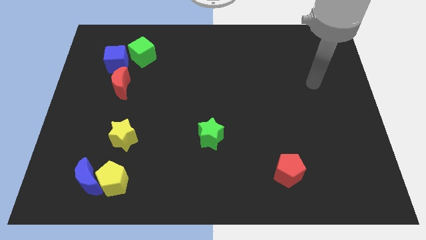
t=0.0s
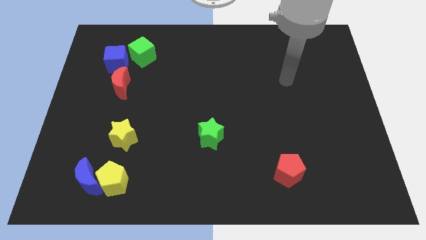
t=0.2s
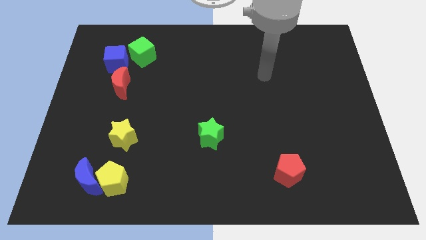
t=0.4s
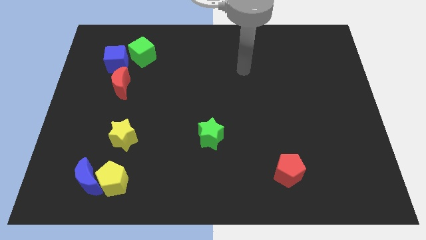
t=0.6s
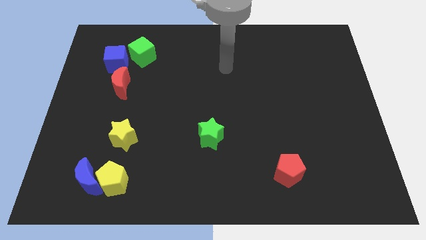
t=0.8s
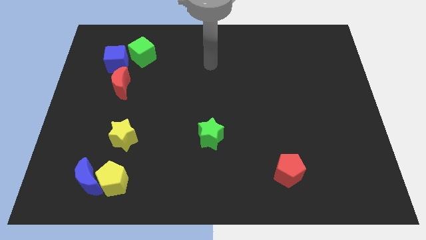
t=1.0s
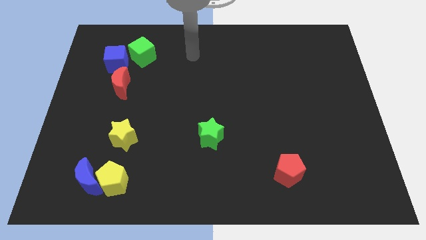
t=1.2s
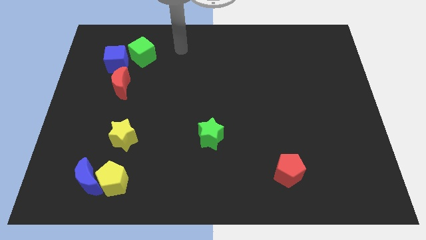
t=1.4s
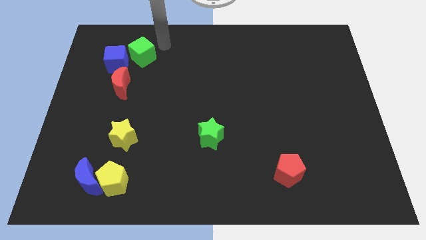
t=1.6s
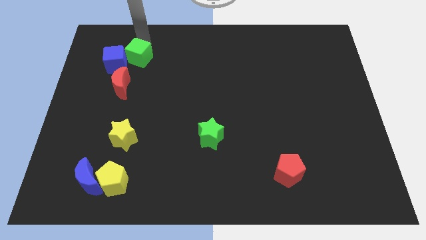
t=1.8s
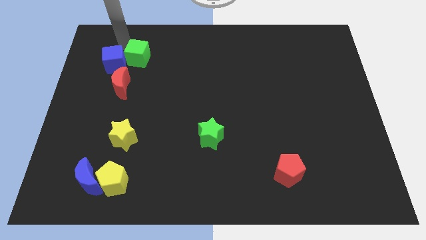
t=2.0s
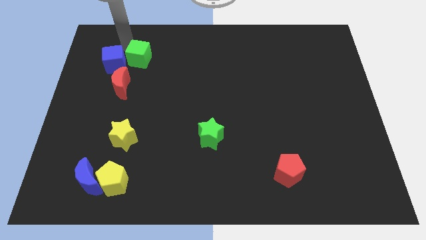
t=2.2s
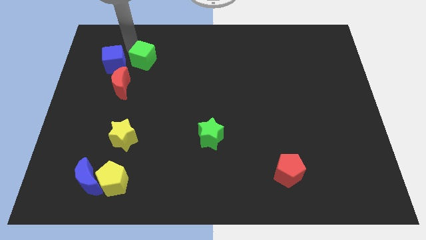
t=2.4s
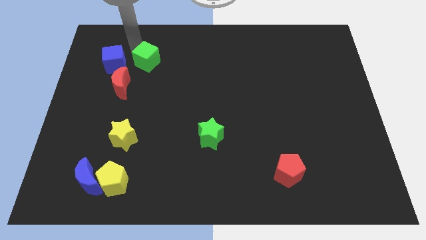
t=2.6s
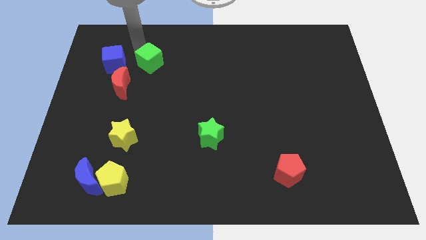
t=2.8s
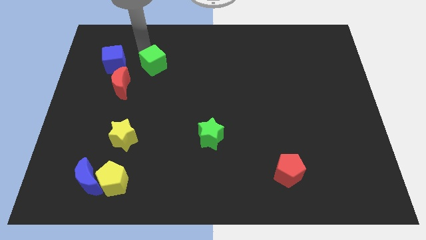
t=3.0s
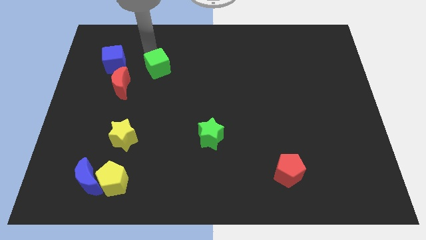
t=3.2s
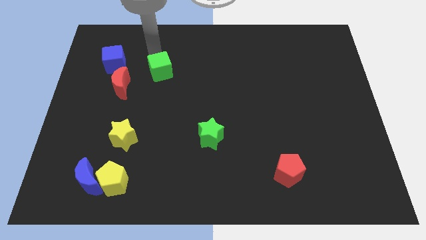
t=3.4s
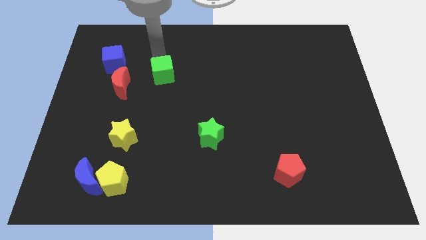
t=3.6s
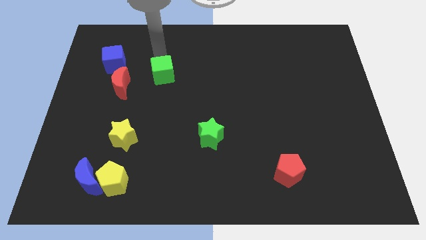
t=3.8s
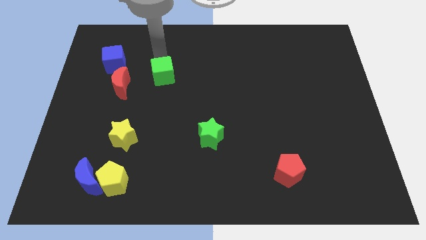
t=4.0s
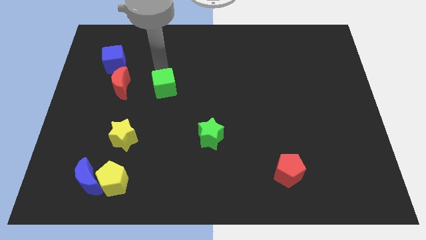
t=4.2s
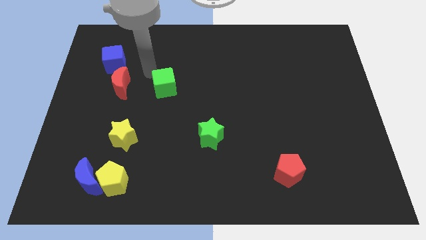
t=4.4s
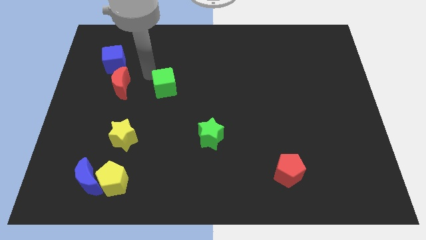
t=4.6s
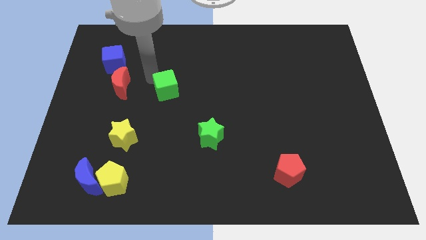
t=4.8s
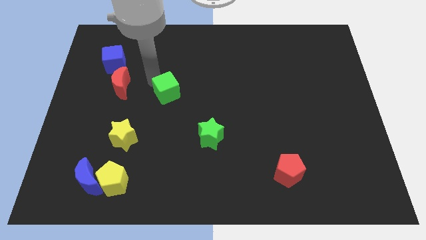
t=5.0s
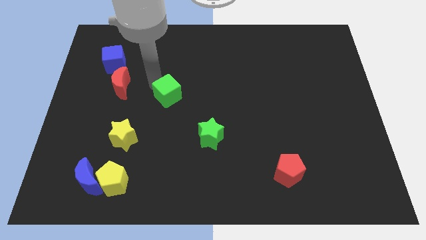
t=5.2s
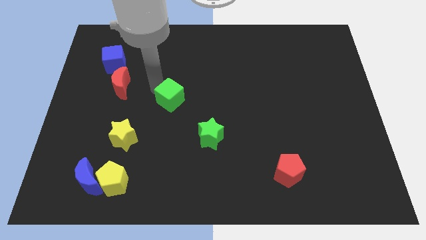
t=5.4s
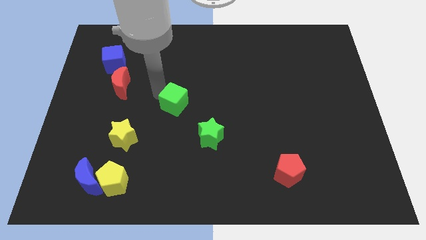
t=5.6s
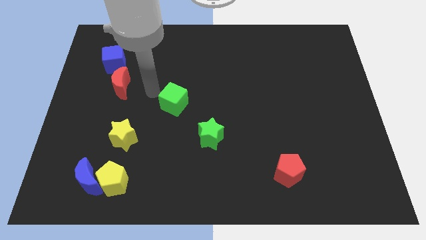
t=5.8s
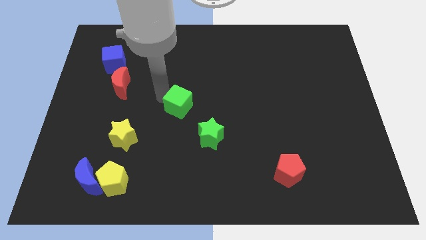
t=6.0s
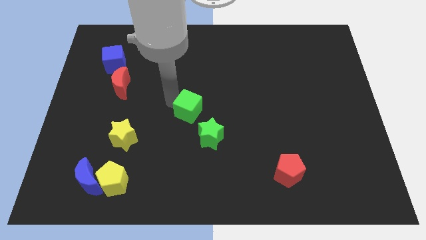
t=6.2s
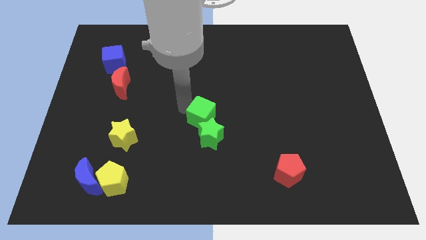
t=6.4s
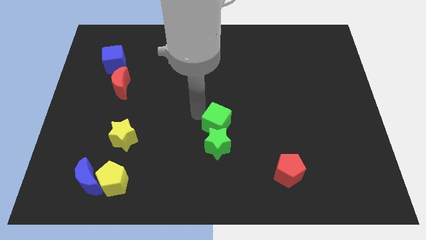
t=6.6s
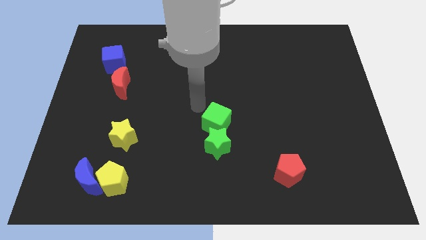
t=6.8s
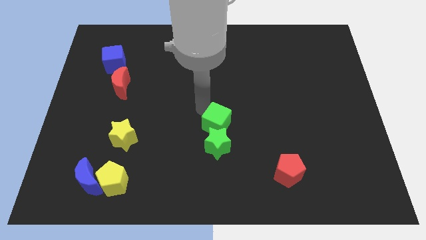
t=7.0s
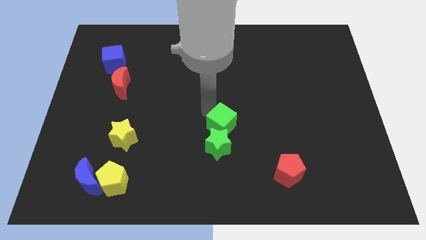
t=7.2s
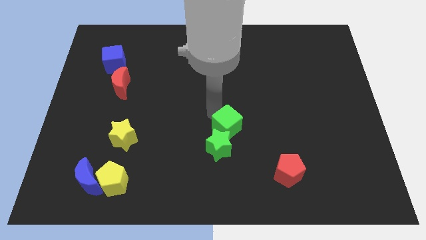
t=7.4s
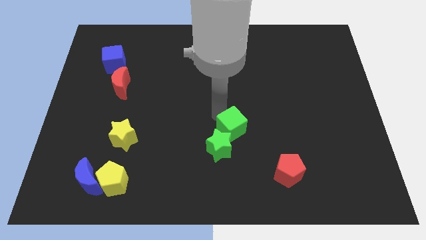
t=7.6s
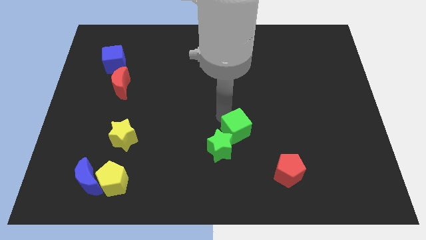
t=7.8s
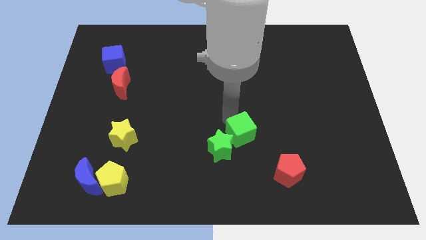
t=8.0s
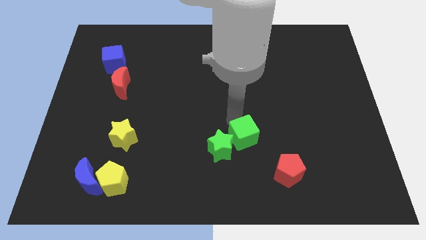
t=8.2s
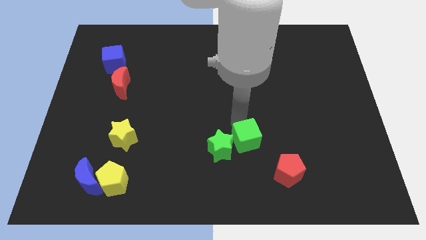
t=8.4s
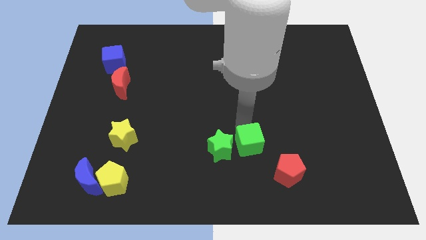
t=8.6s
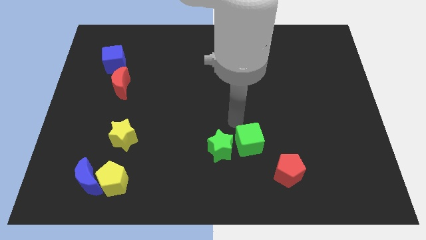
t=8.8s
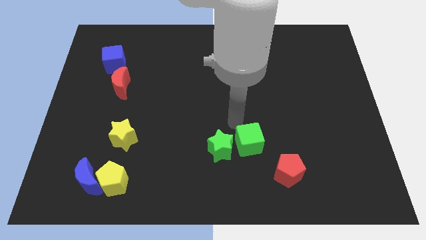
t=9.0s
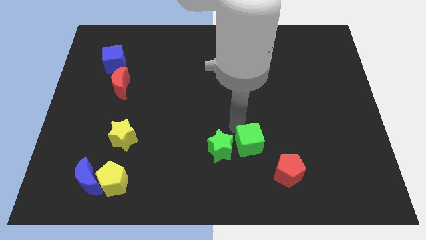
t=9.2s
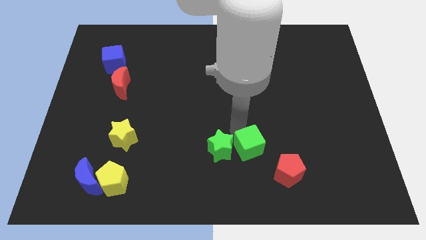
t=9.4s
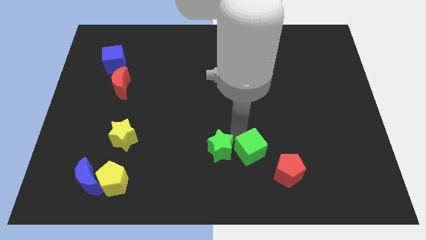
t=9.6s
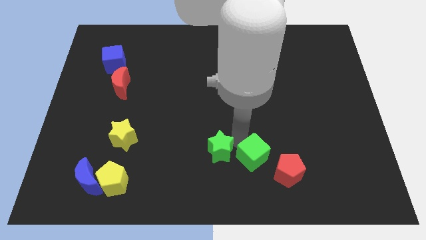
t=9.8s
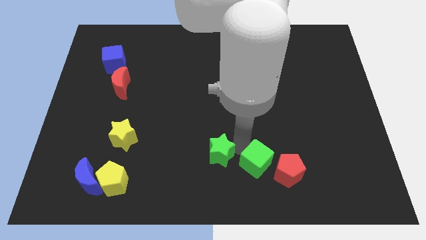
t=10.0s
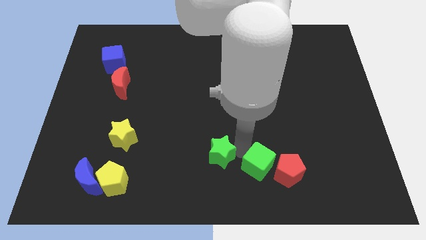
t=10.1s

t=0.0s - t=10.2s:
slide the green cube towards the red pentagon

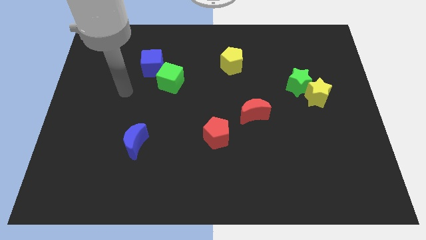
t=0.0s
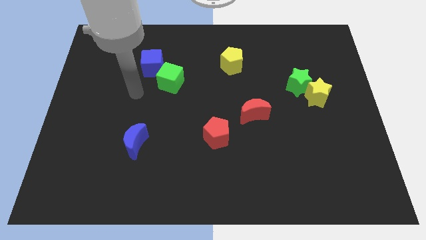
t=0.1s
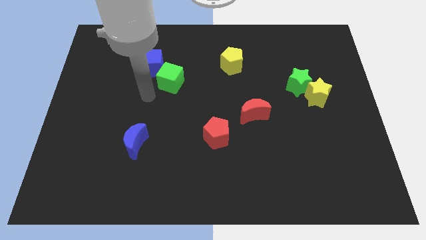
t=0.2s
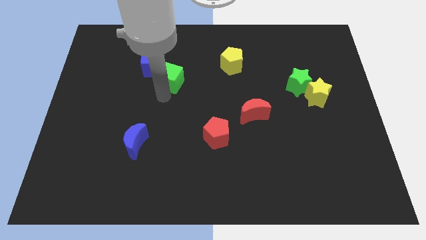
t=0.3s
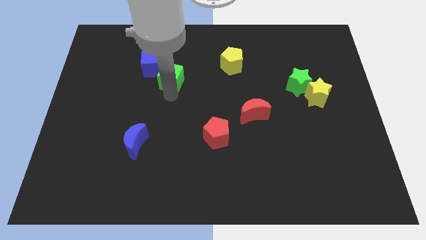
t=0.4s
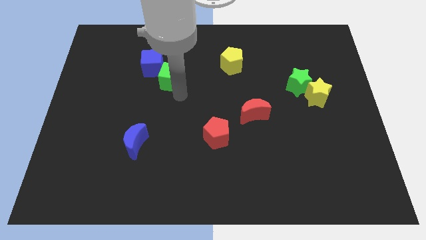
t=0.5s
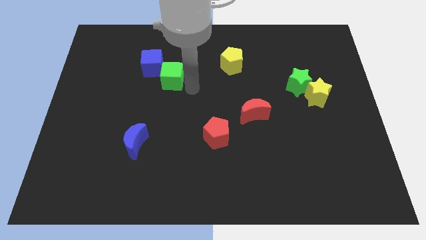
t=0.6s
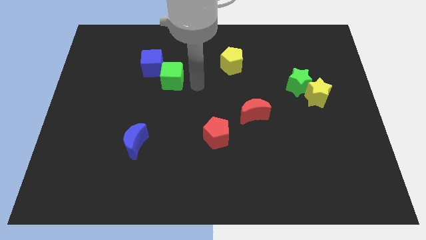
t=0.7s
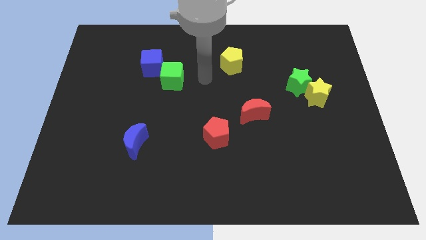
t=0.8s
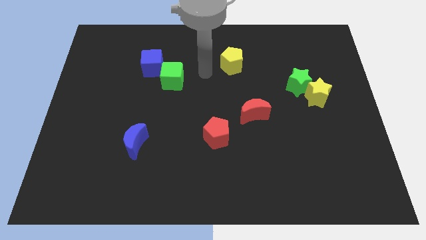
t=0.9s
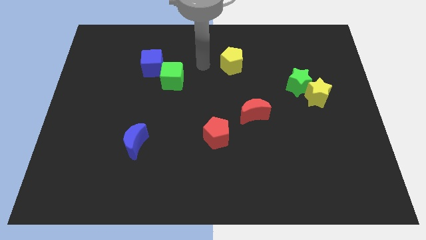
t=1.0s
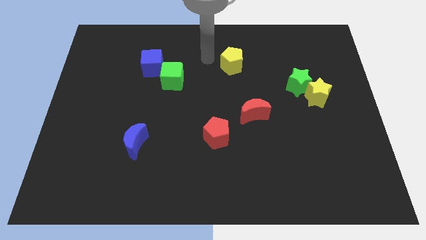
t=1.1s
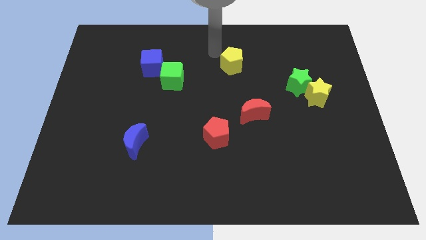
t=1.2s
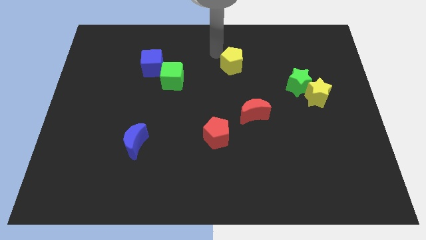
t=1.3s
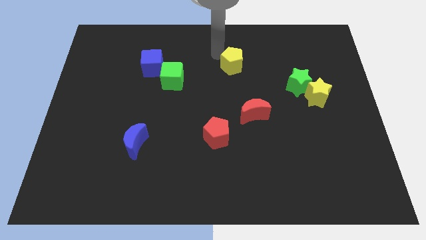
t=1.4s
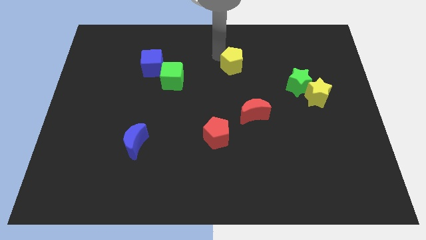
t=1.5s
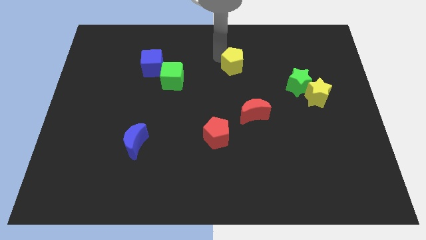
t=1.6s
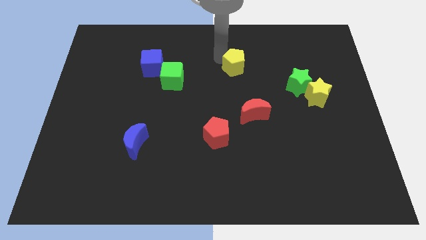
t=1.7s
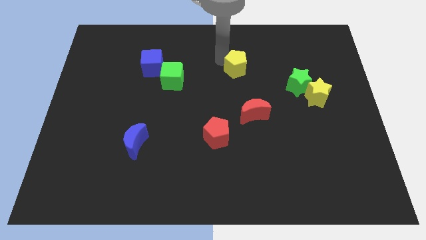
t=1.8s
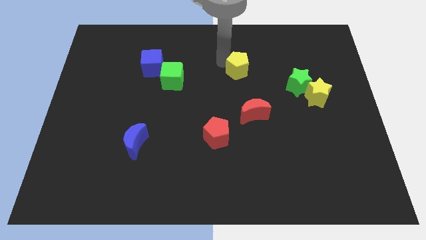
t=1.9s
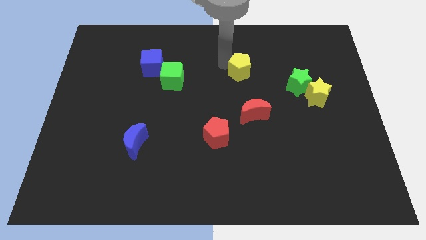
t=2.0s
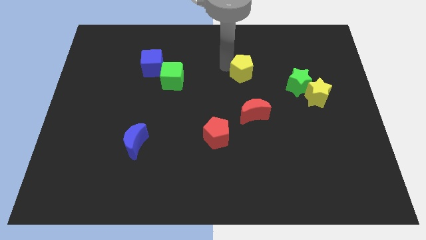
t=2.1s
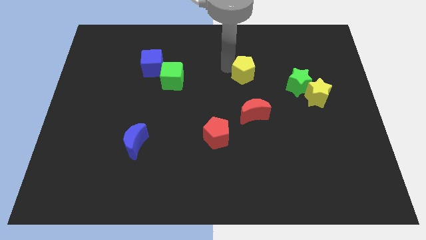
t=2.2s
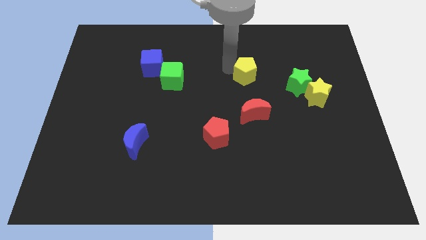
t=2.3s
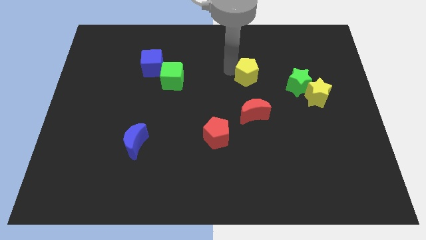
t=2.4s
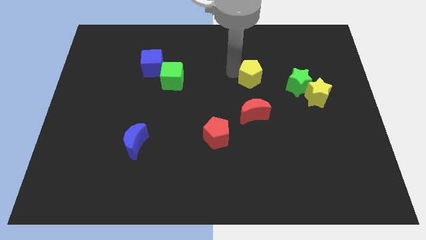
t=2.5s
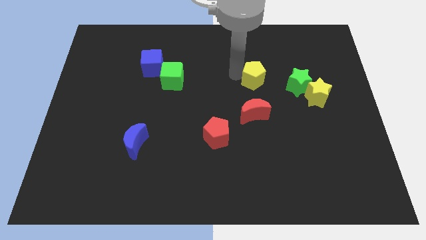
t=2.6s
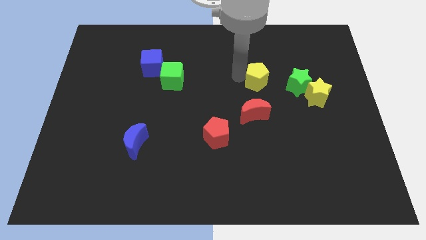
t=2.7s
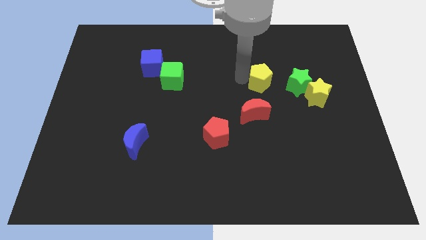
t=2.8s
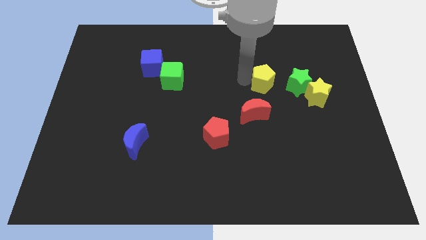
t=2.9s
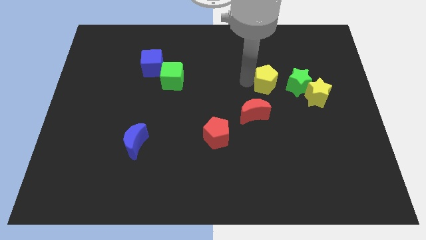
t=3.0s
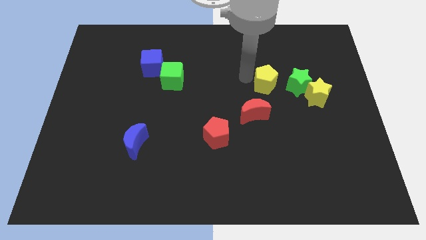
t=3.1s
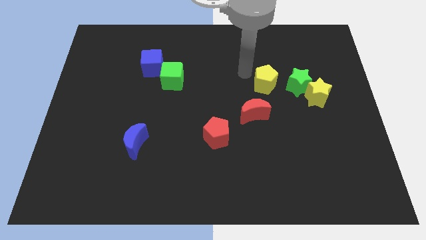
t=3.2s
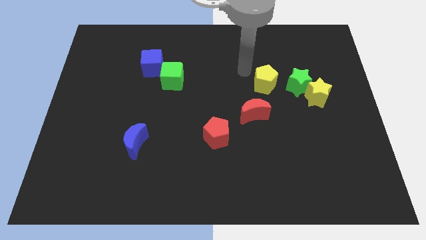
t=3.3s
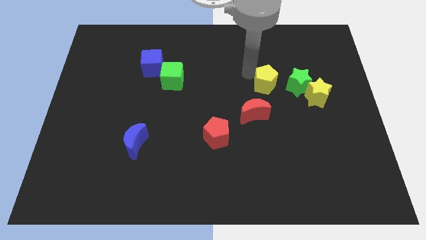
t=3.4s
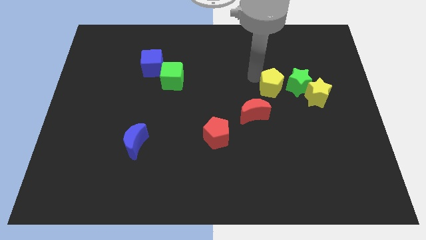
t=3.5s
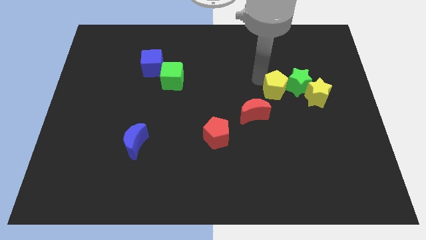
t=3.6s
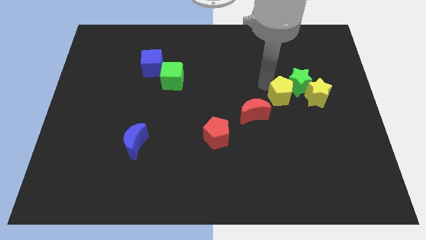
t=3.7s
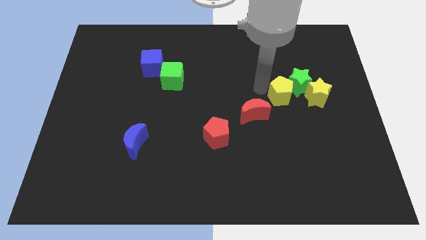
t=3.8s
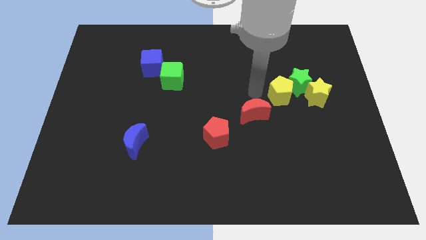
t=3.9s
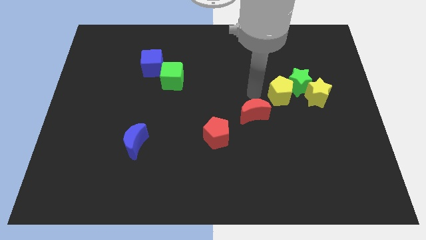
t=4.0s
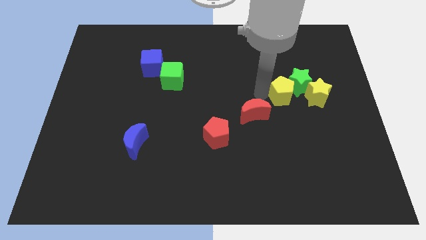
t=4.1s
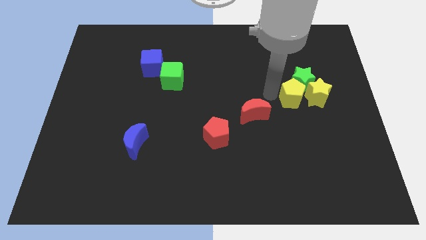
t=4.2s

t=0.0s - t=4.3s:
slide the yellow pentagon to the yellow star
